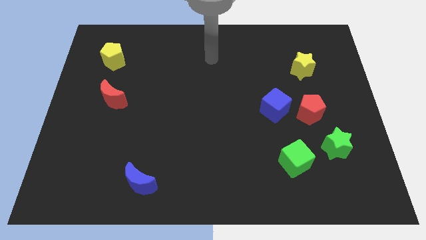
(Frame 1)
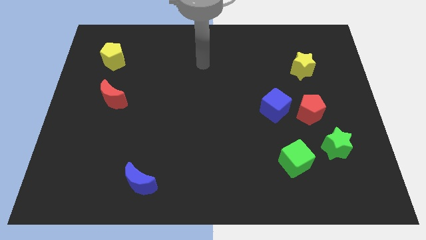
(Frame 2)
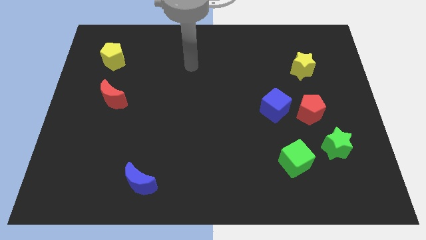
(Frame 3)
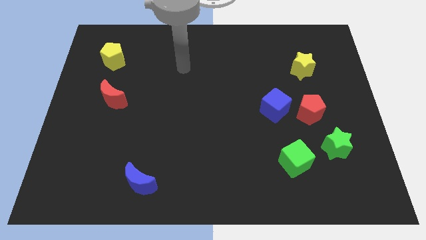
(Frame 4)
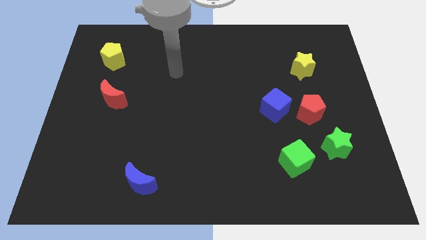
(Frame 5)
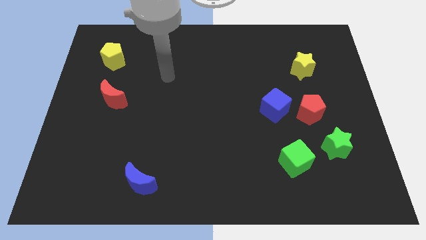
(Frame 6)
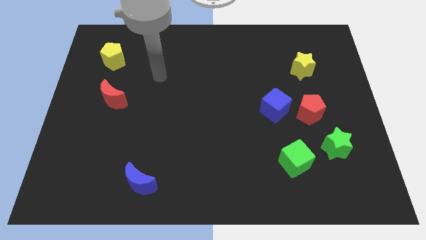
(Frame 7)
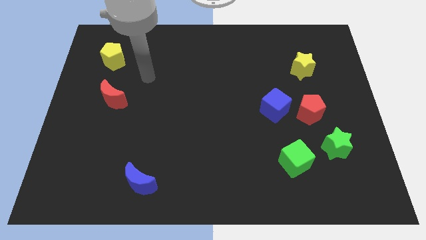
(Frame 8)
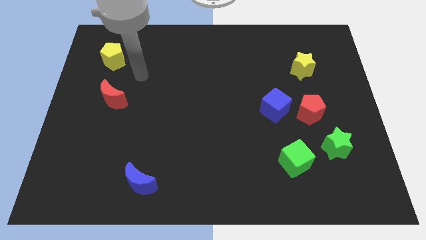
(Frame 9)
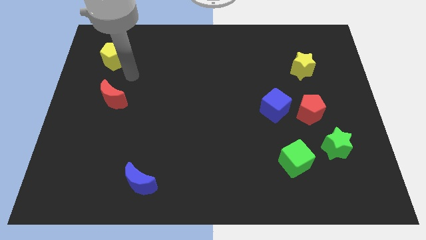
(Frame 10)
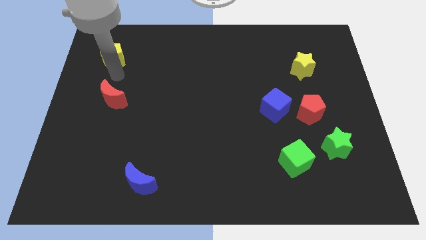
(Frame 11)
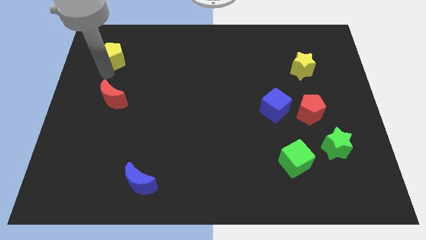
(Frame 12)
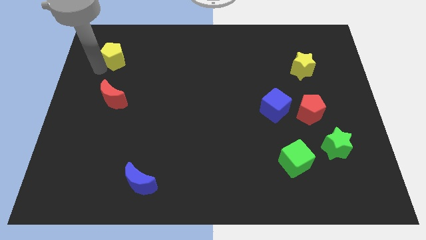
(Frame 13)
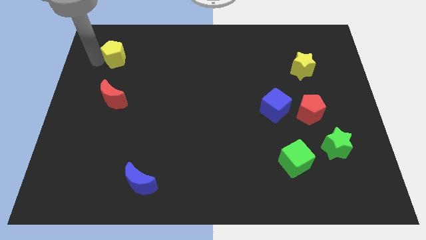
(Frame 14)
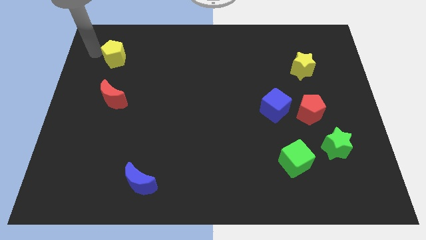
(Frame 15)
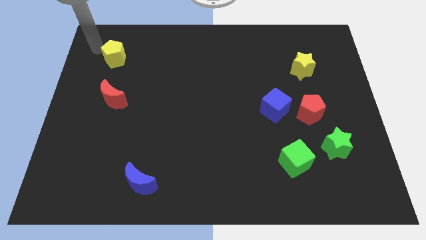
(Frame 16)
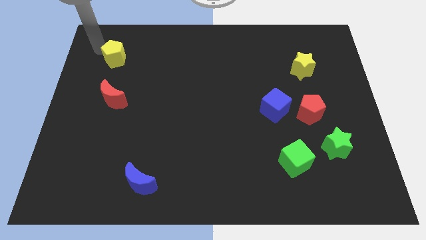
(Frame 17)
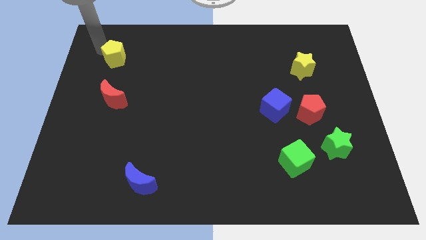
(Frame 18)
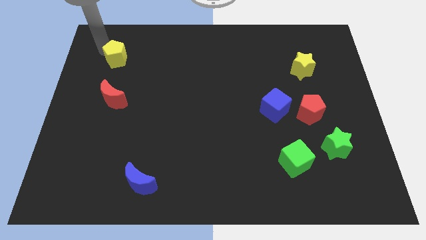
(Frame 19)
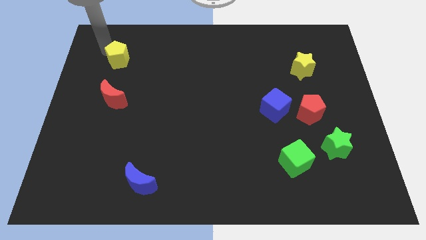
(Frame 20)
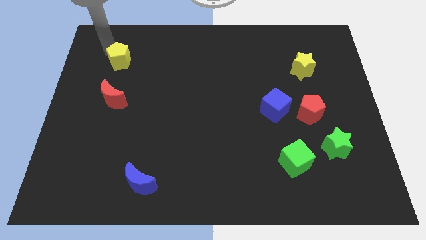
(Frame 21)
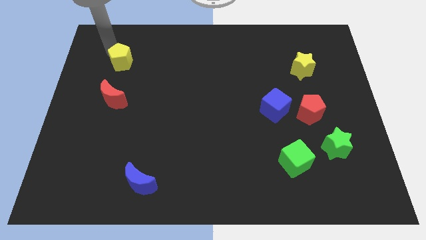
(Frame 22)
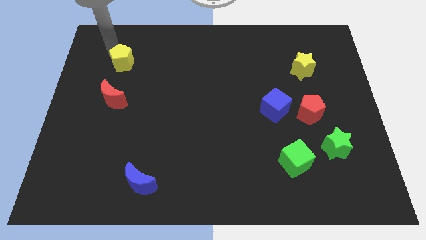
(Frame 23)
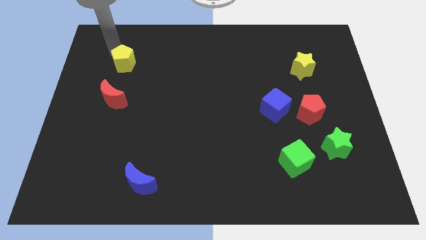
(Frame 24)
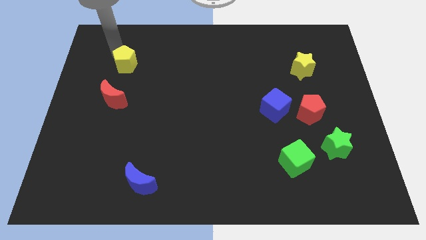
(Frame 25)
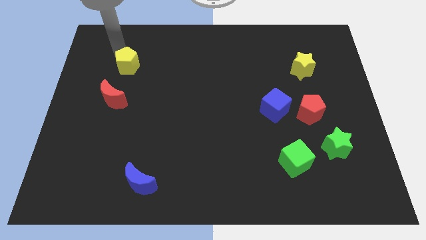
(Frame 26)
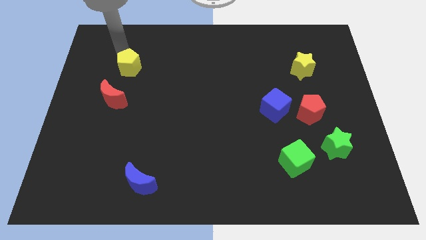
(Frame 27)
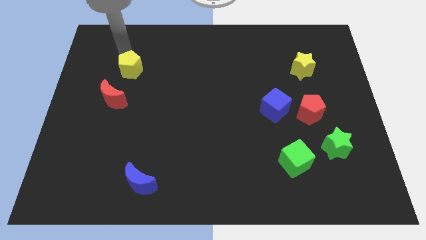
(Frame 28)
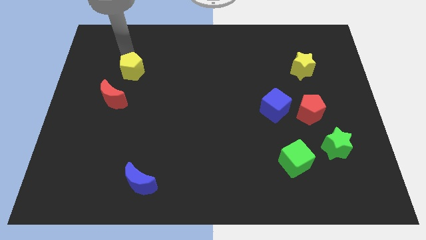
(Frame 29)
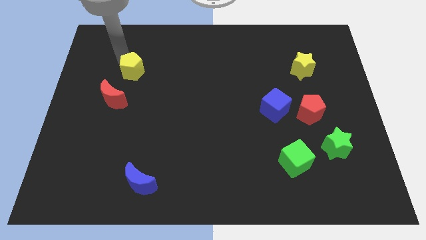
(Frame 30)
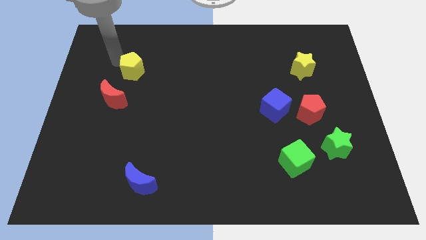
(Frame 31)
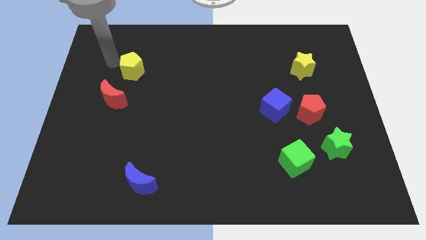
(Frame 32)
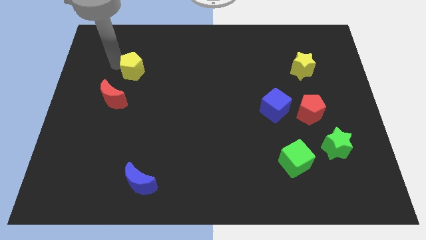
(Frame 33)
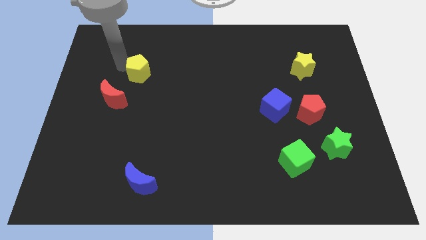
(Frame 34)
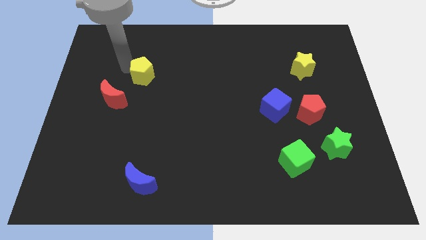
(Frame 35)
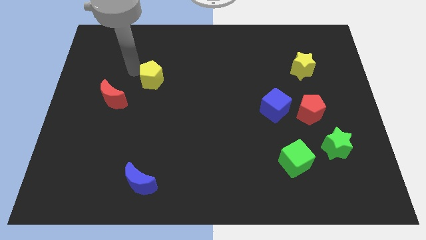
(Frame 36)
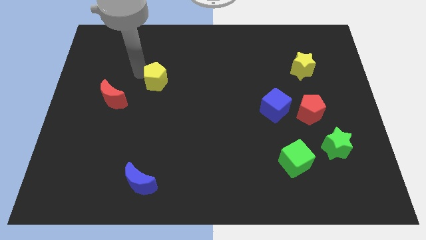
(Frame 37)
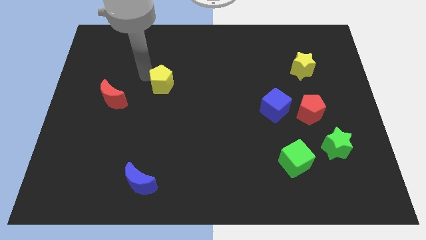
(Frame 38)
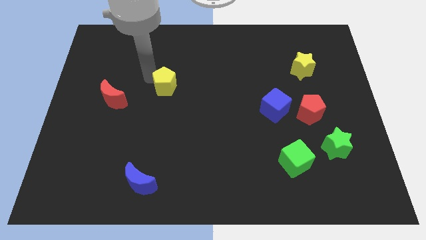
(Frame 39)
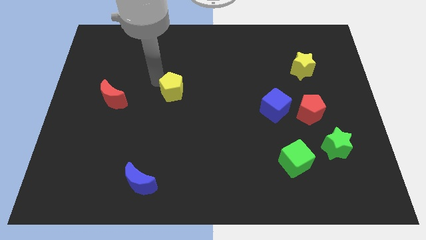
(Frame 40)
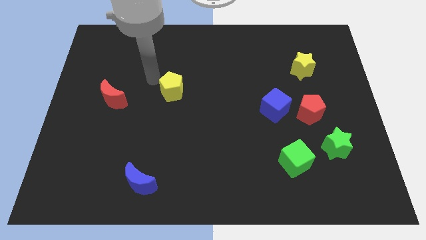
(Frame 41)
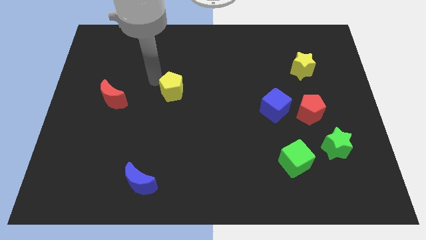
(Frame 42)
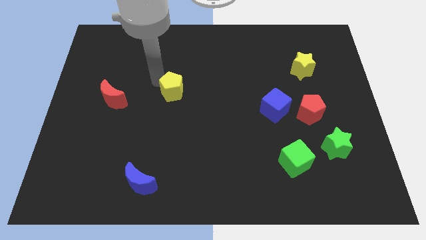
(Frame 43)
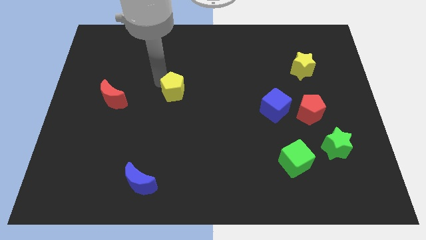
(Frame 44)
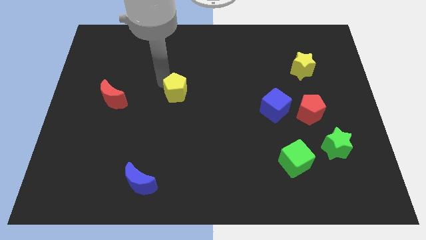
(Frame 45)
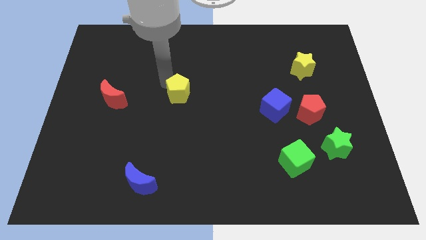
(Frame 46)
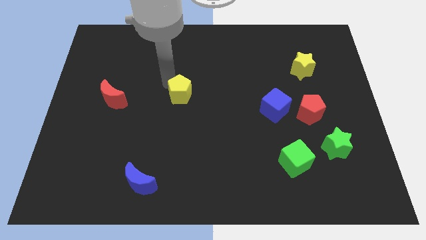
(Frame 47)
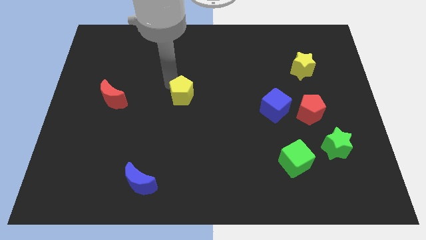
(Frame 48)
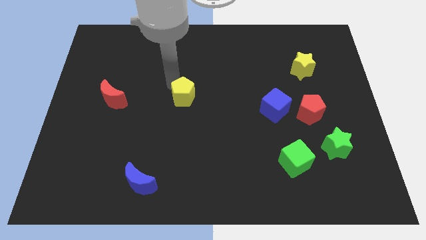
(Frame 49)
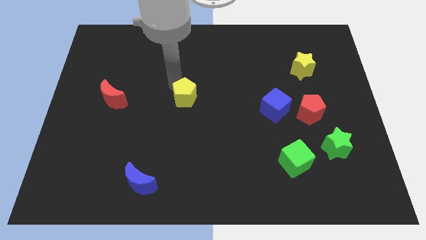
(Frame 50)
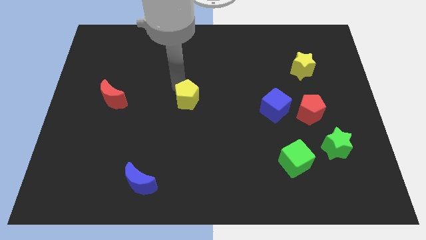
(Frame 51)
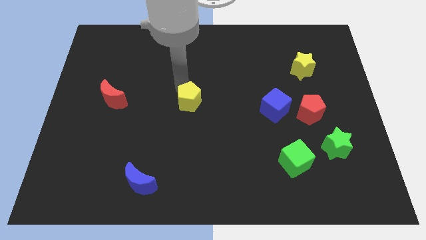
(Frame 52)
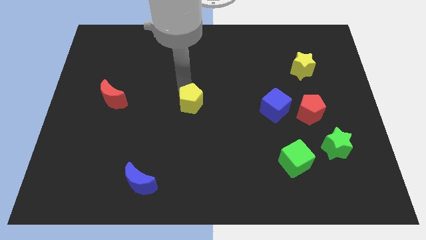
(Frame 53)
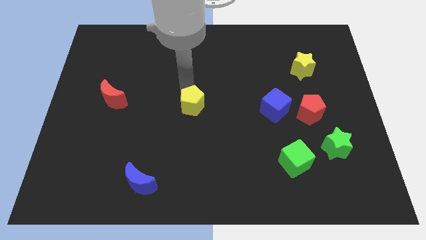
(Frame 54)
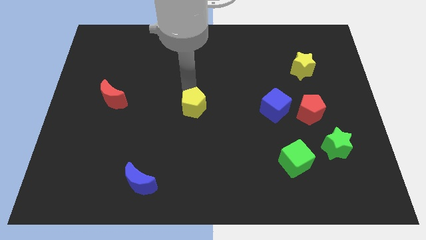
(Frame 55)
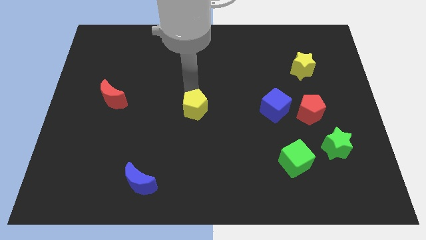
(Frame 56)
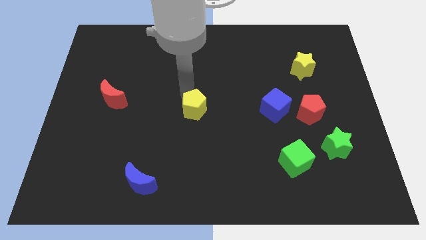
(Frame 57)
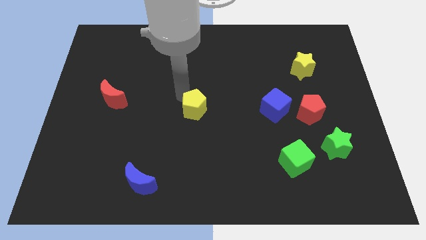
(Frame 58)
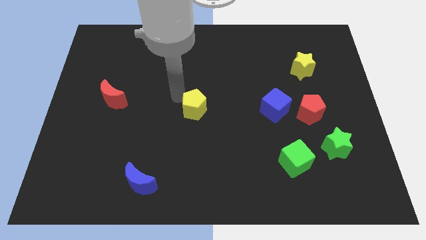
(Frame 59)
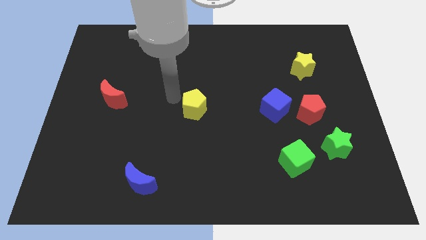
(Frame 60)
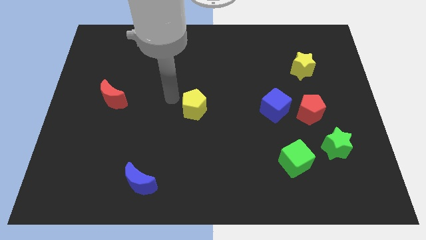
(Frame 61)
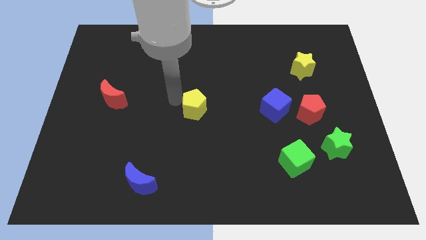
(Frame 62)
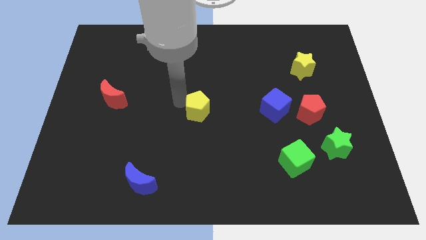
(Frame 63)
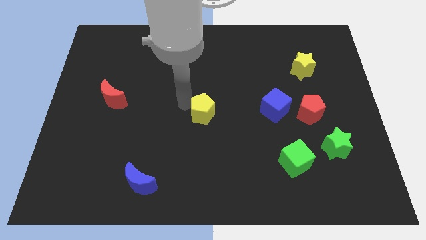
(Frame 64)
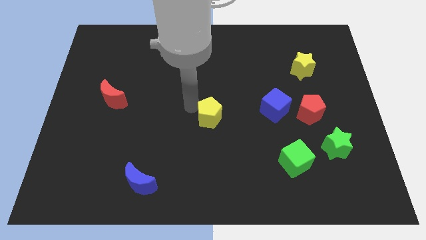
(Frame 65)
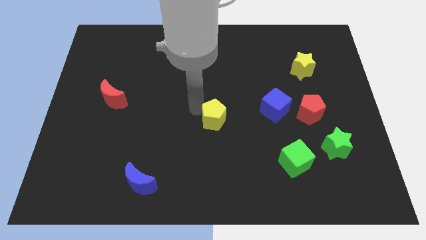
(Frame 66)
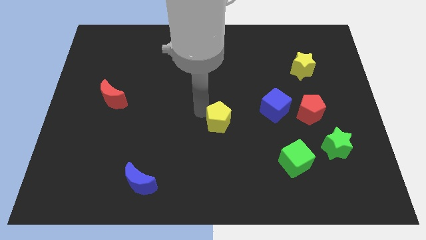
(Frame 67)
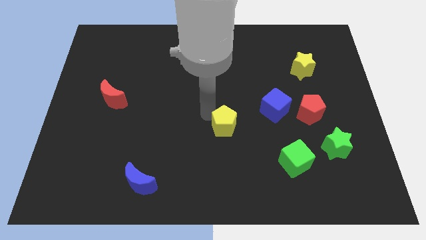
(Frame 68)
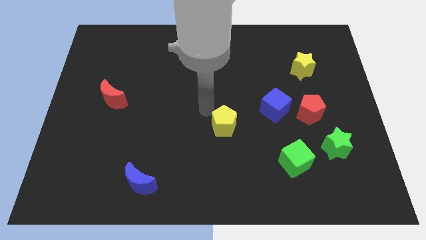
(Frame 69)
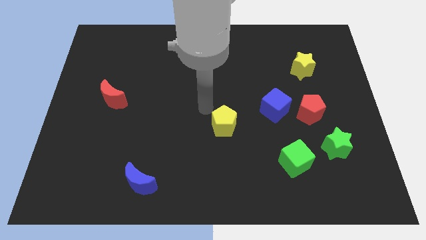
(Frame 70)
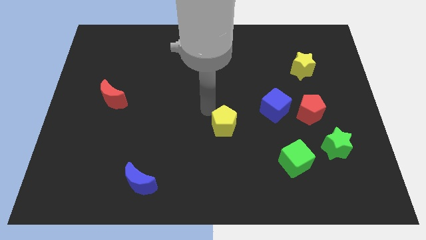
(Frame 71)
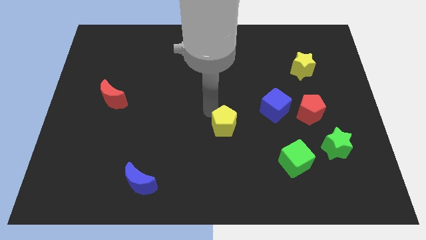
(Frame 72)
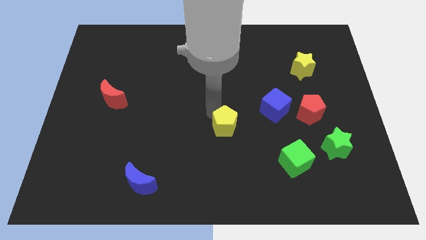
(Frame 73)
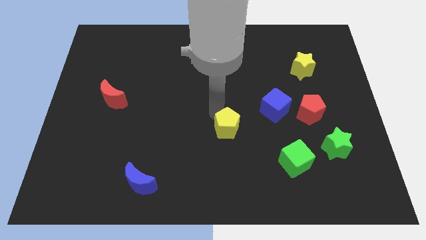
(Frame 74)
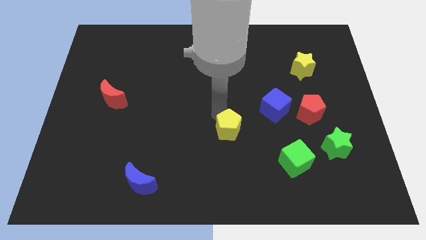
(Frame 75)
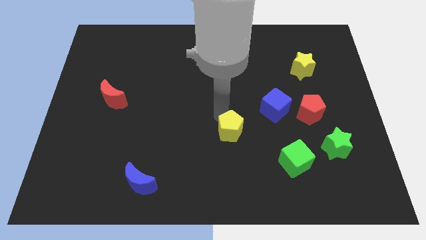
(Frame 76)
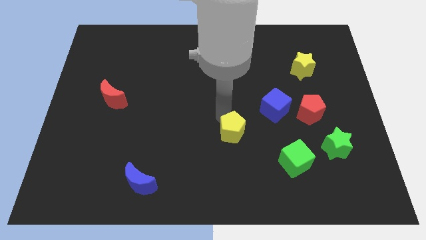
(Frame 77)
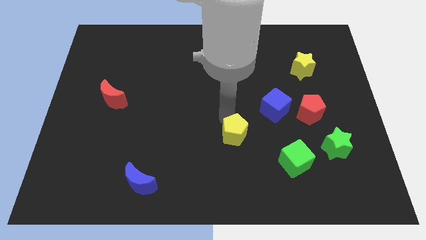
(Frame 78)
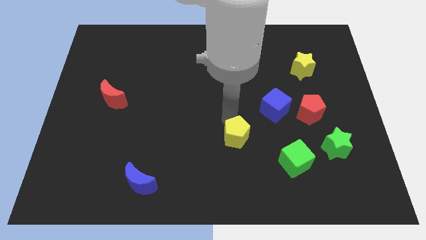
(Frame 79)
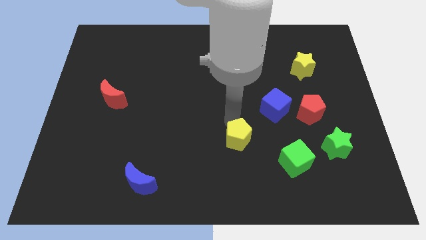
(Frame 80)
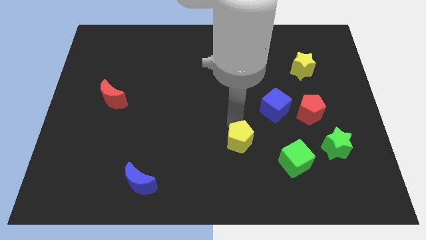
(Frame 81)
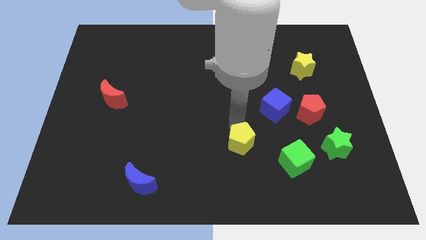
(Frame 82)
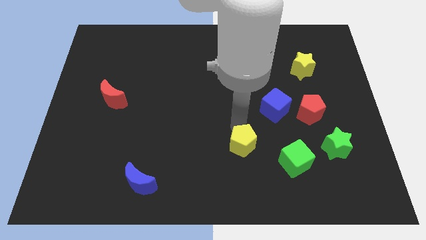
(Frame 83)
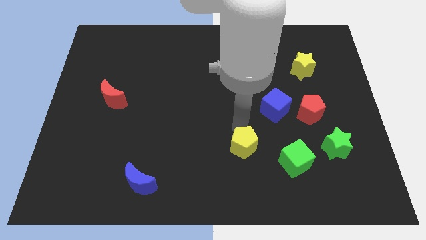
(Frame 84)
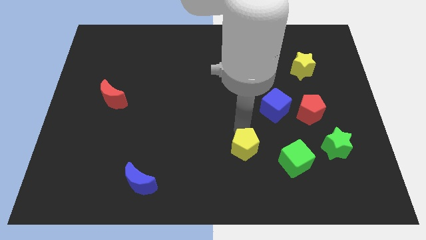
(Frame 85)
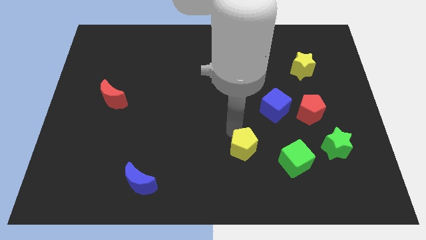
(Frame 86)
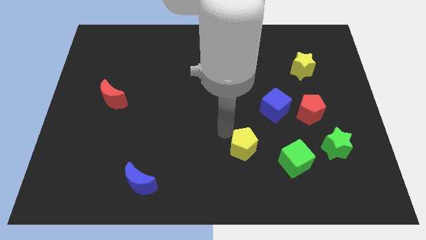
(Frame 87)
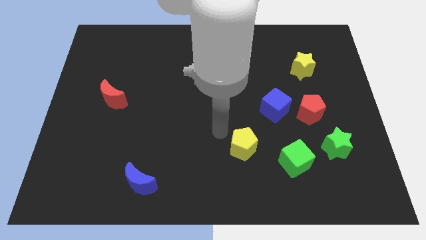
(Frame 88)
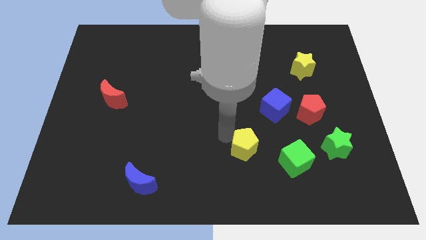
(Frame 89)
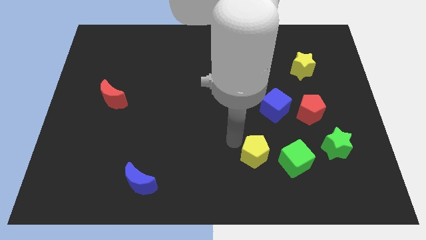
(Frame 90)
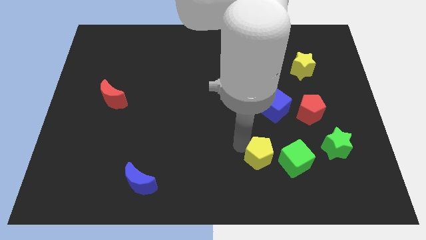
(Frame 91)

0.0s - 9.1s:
push the yellow pentagon below the blue cube
